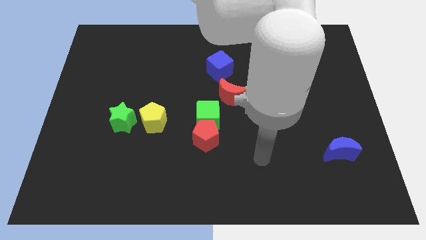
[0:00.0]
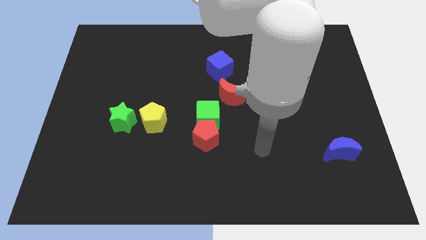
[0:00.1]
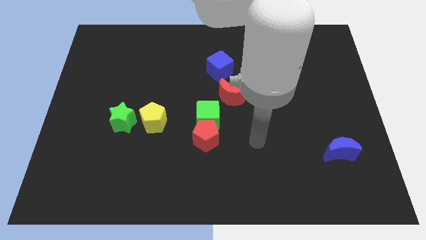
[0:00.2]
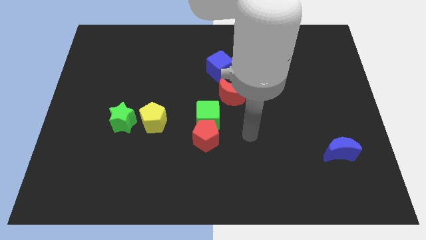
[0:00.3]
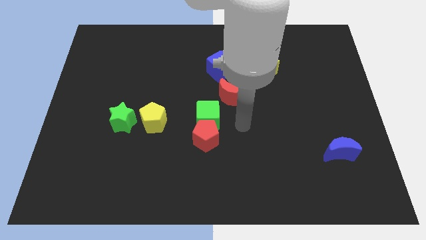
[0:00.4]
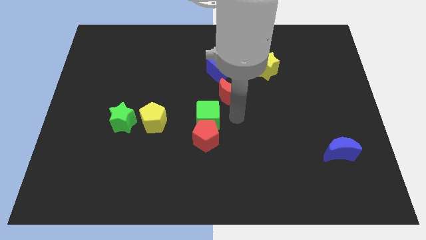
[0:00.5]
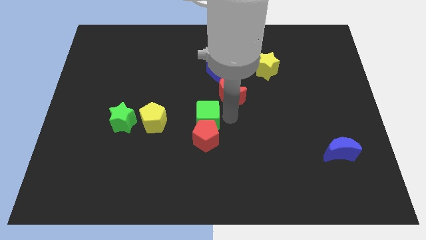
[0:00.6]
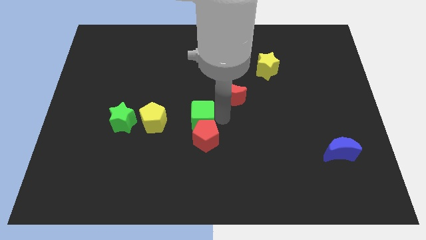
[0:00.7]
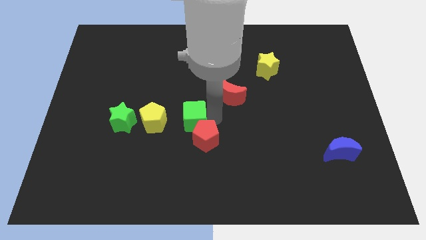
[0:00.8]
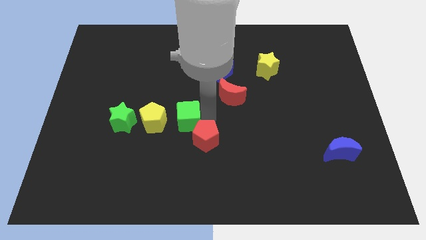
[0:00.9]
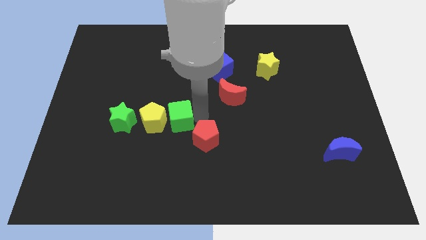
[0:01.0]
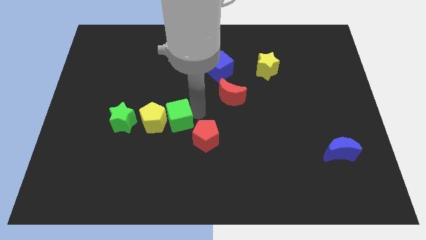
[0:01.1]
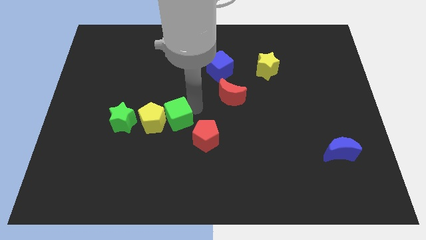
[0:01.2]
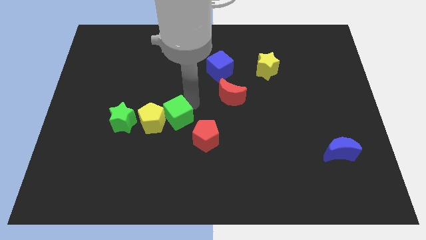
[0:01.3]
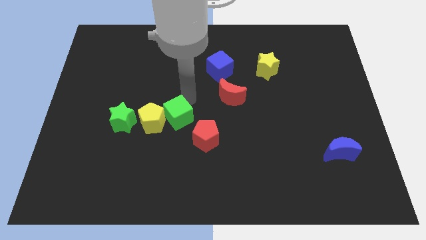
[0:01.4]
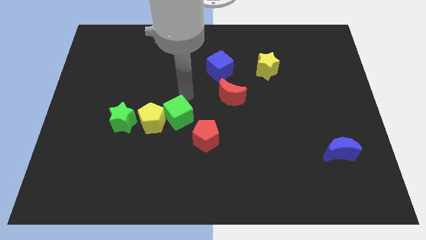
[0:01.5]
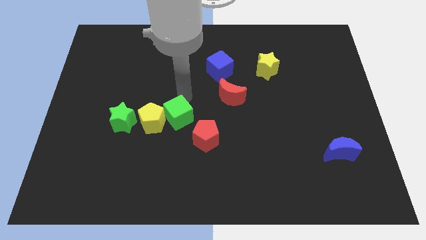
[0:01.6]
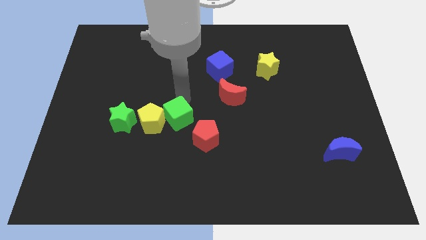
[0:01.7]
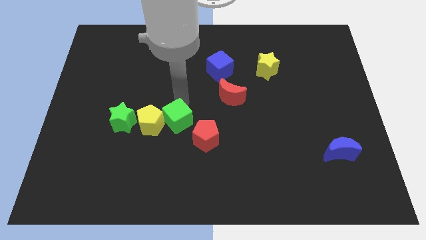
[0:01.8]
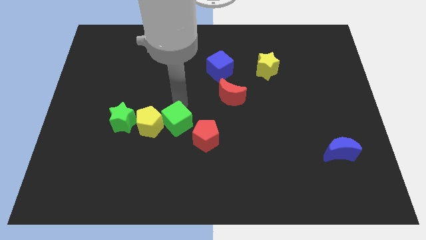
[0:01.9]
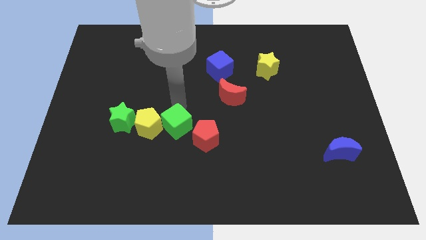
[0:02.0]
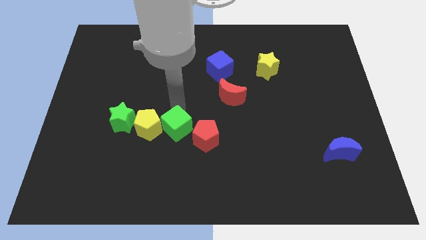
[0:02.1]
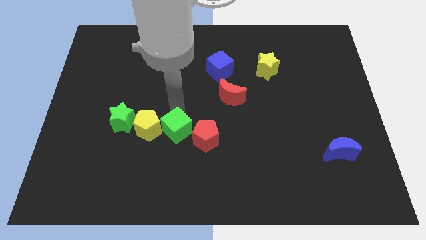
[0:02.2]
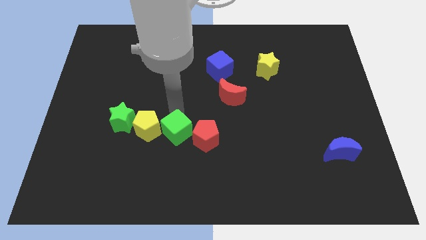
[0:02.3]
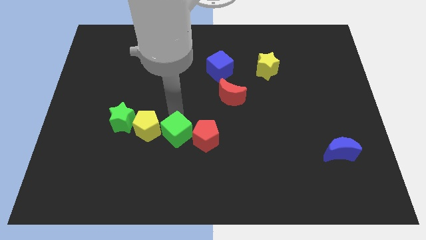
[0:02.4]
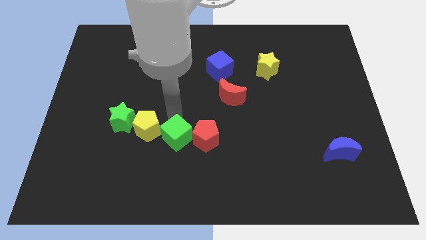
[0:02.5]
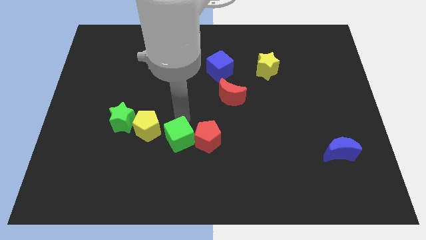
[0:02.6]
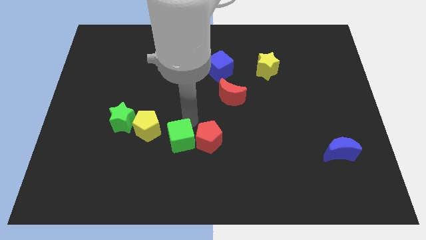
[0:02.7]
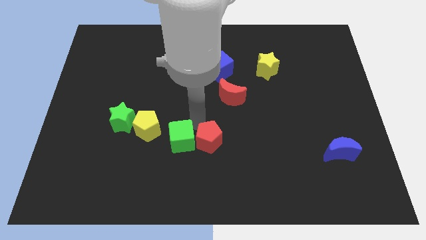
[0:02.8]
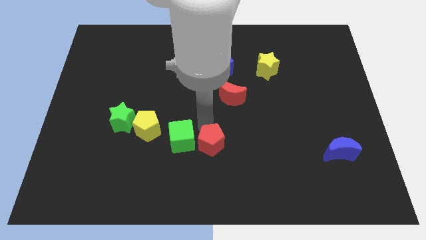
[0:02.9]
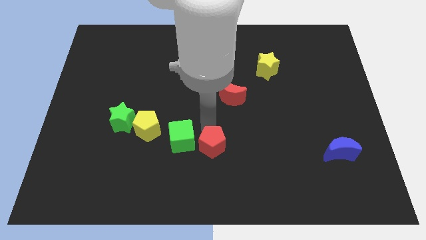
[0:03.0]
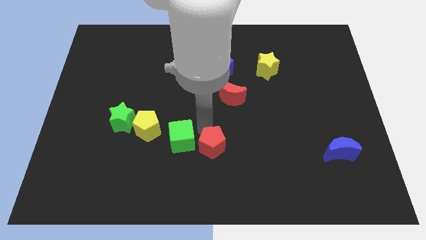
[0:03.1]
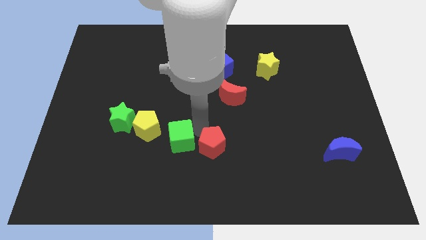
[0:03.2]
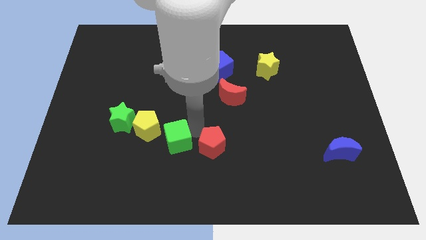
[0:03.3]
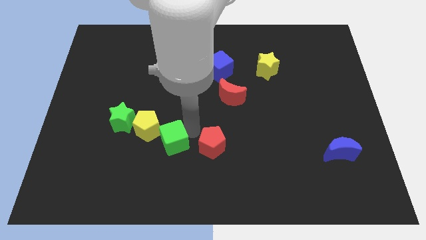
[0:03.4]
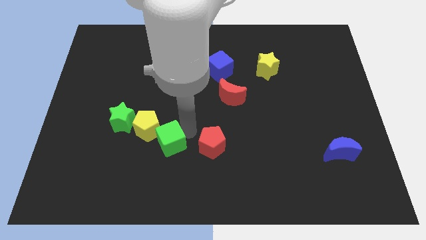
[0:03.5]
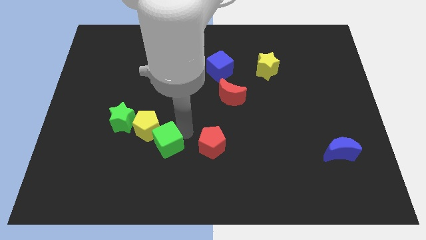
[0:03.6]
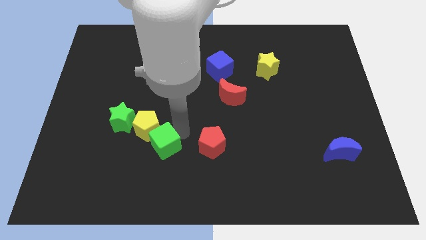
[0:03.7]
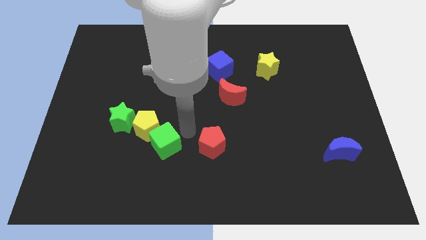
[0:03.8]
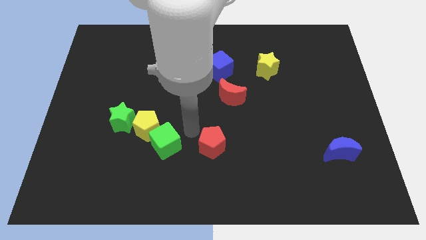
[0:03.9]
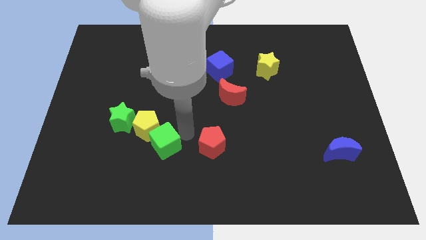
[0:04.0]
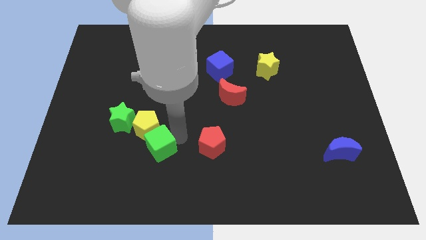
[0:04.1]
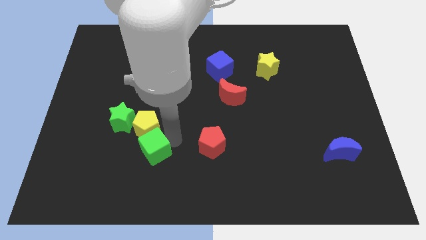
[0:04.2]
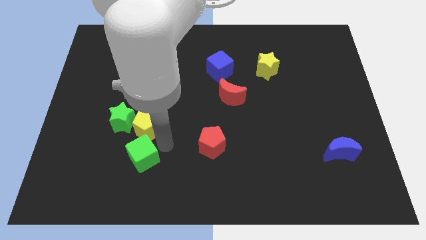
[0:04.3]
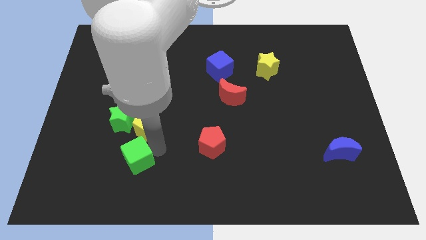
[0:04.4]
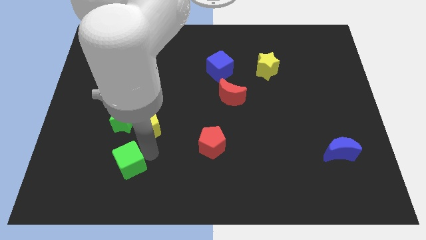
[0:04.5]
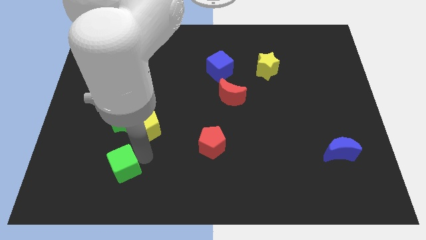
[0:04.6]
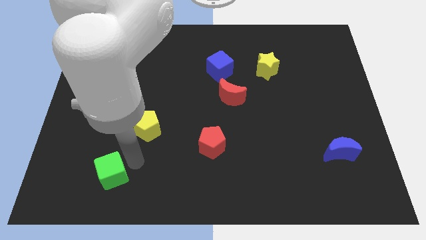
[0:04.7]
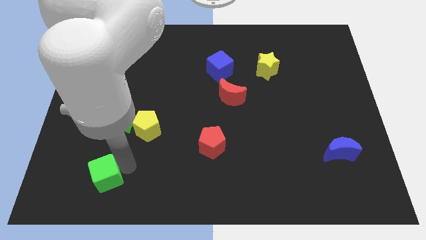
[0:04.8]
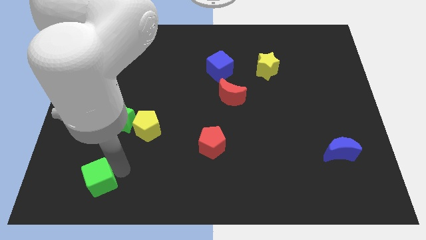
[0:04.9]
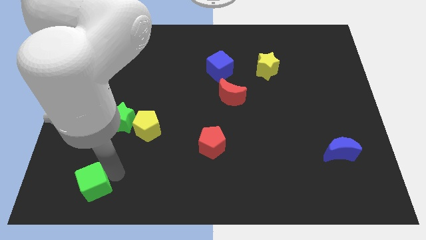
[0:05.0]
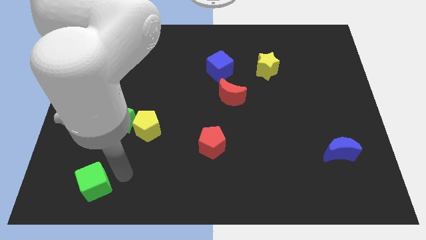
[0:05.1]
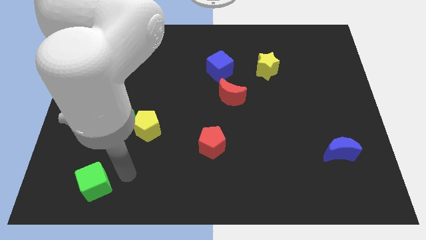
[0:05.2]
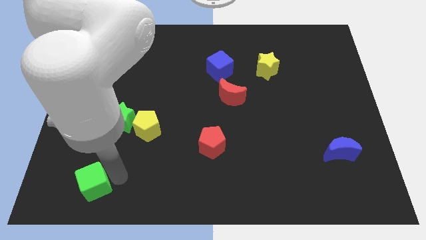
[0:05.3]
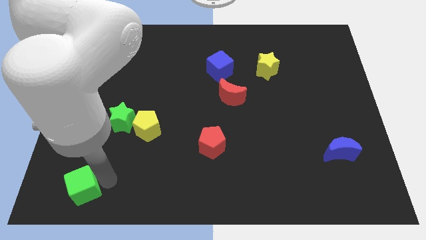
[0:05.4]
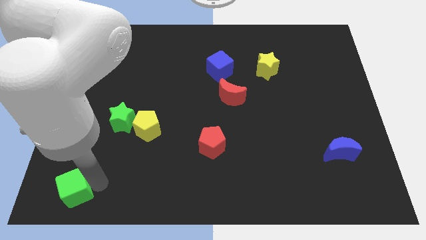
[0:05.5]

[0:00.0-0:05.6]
put the green cube to the bottom left corner

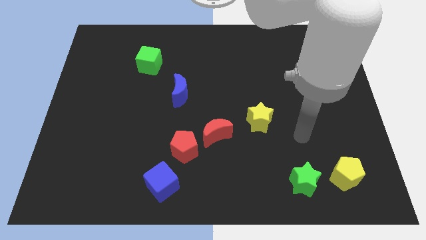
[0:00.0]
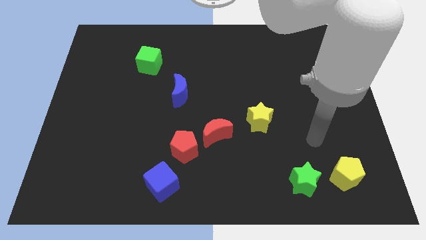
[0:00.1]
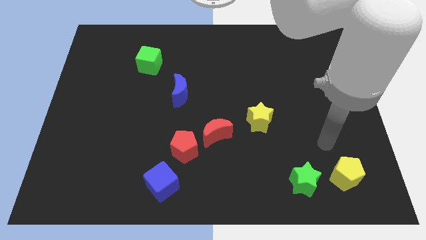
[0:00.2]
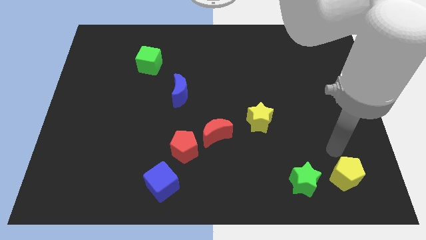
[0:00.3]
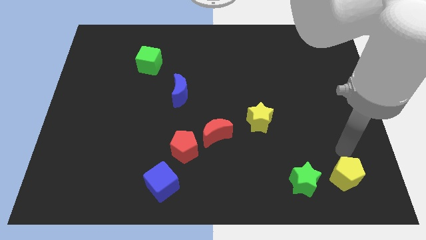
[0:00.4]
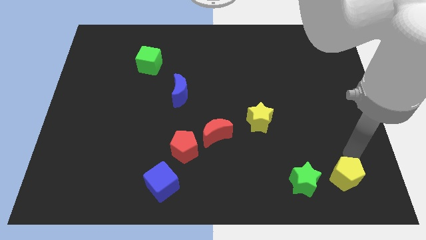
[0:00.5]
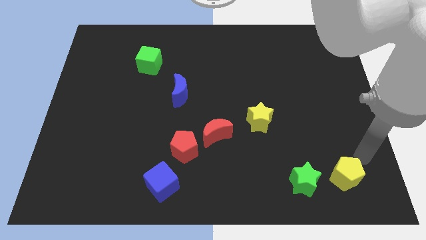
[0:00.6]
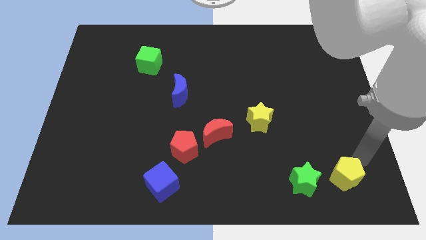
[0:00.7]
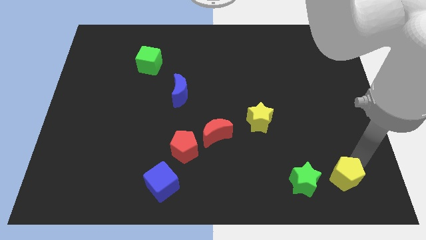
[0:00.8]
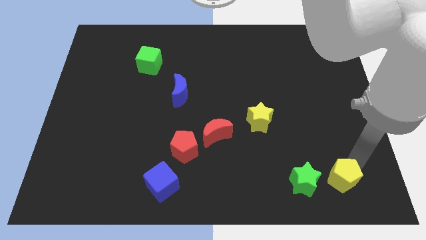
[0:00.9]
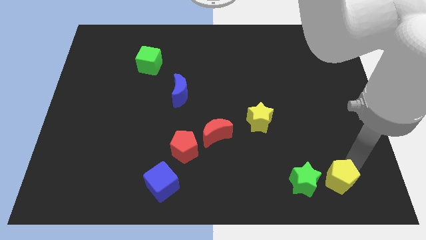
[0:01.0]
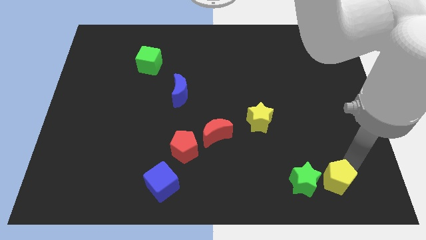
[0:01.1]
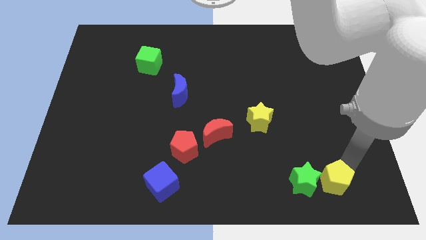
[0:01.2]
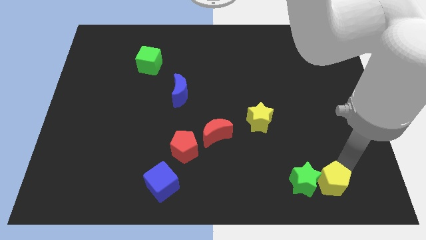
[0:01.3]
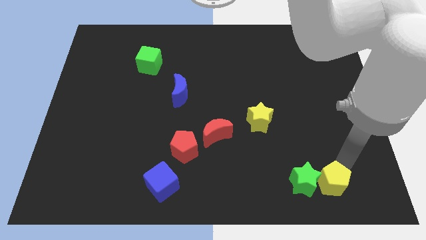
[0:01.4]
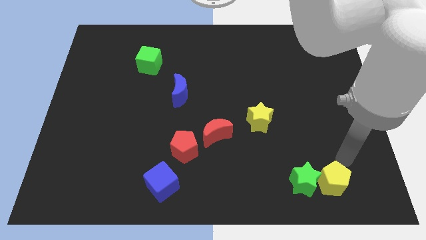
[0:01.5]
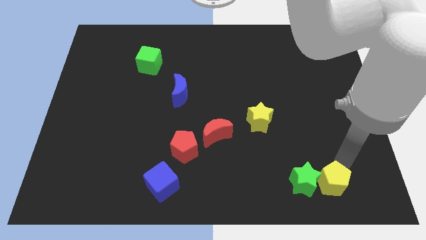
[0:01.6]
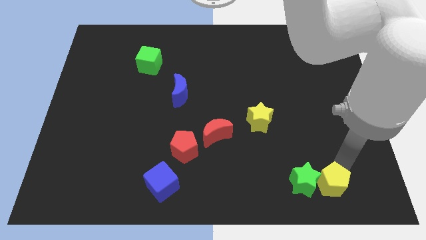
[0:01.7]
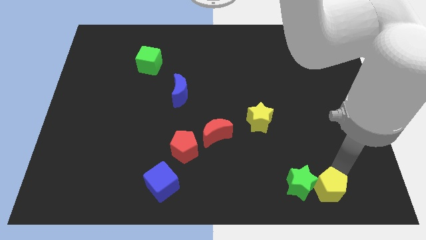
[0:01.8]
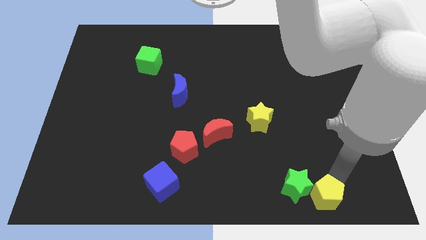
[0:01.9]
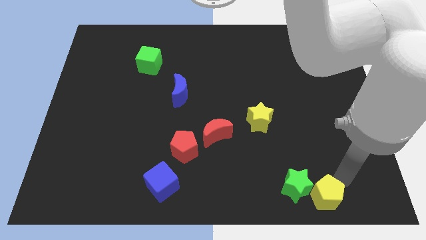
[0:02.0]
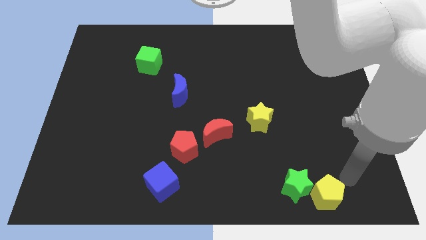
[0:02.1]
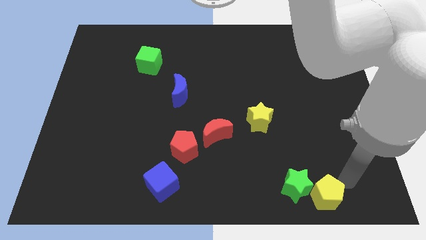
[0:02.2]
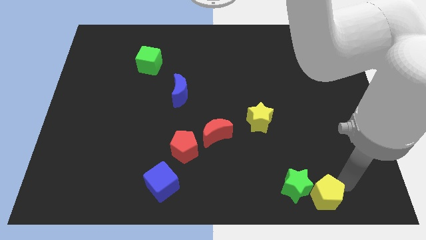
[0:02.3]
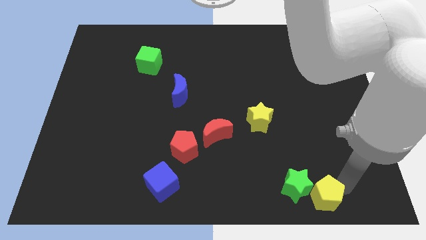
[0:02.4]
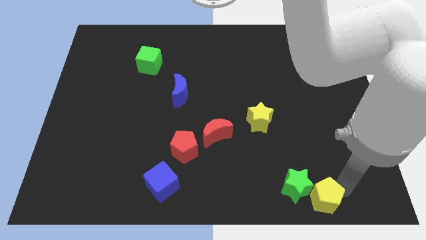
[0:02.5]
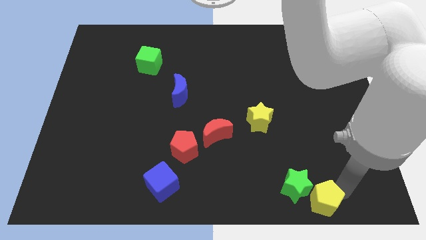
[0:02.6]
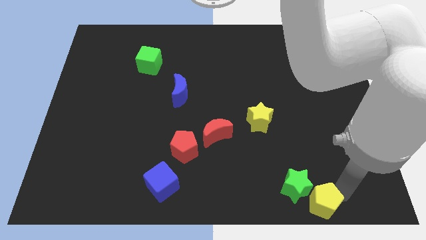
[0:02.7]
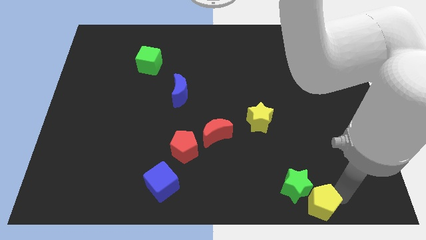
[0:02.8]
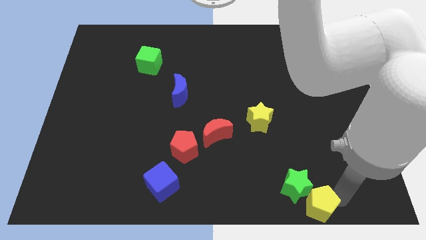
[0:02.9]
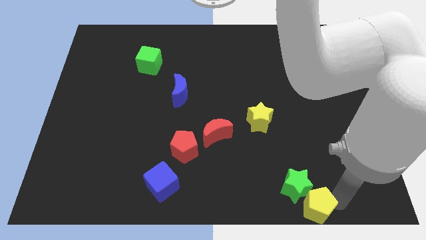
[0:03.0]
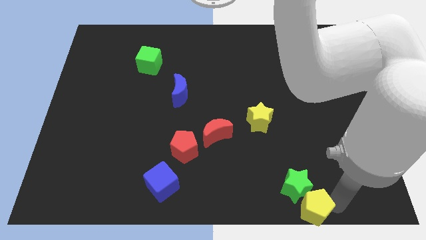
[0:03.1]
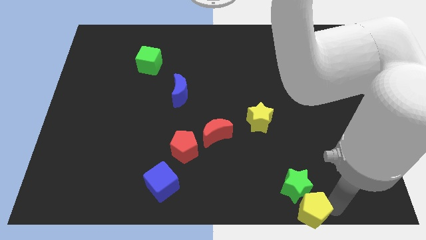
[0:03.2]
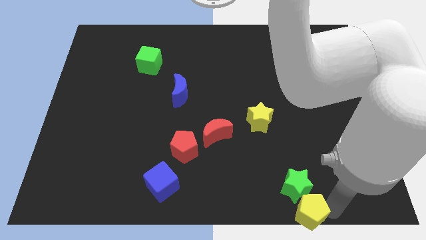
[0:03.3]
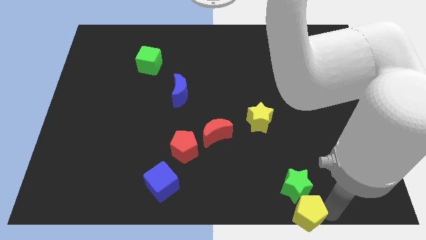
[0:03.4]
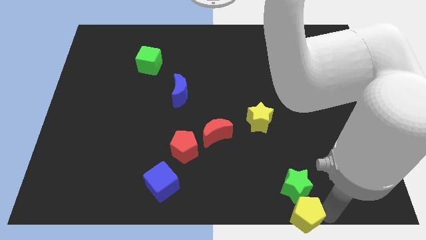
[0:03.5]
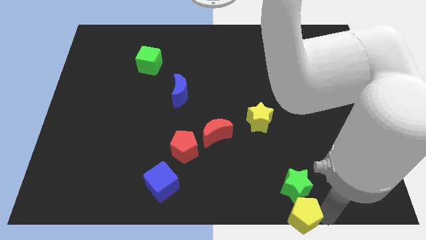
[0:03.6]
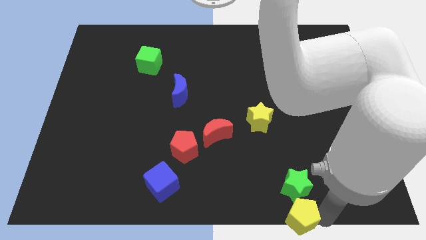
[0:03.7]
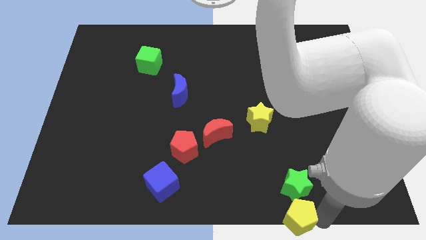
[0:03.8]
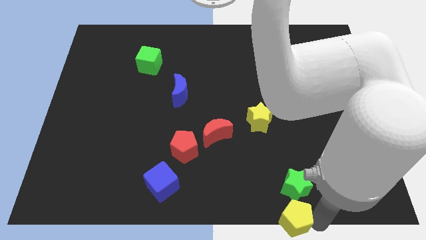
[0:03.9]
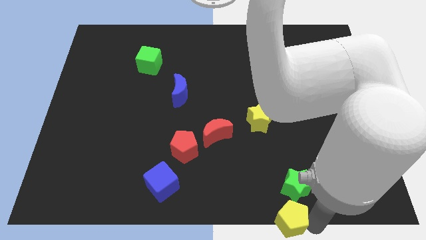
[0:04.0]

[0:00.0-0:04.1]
push the yellow pentagon to the bottom side
